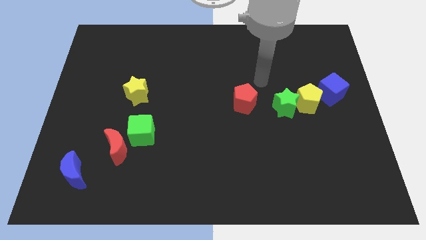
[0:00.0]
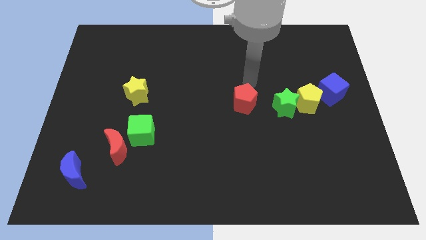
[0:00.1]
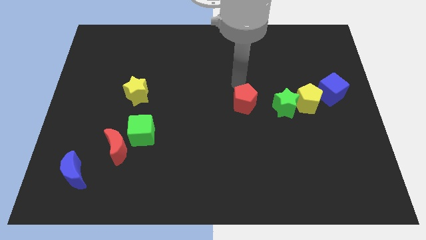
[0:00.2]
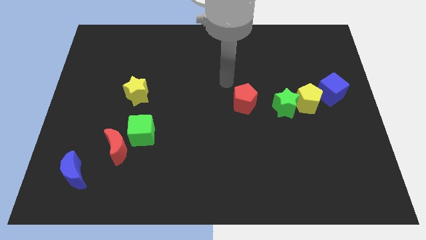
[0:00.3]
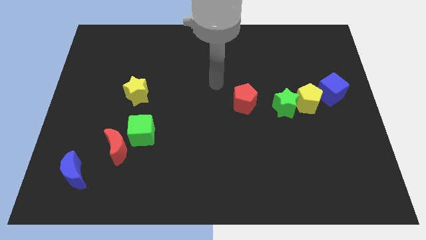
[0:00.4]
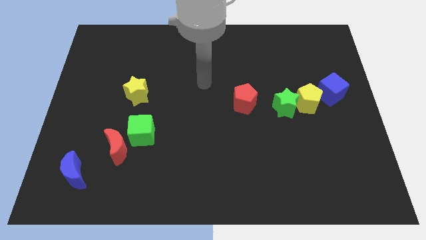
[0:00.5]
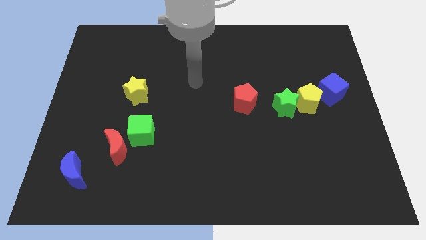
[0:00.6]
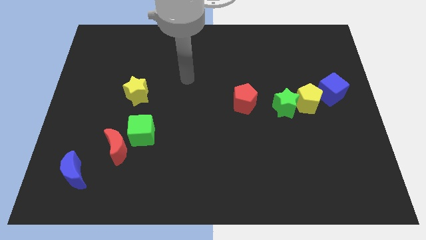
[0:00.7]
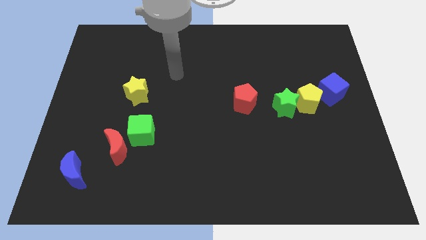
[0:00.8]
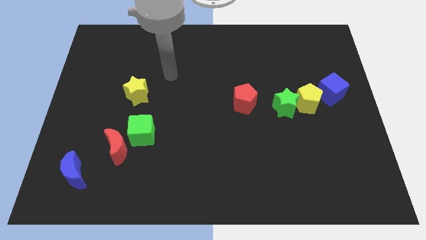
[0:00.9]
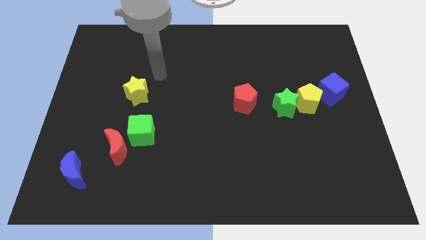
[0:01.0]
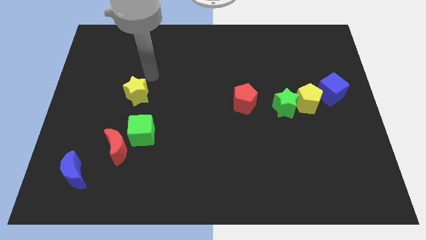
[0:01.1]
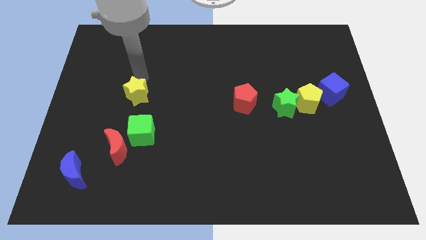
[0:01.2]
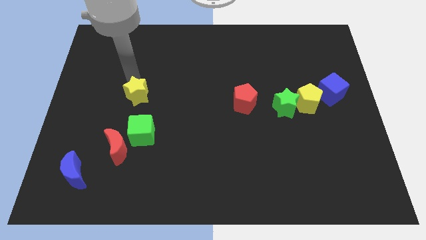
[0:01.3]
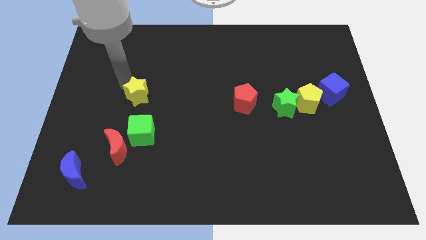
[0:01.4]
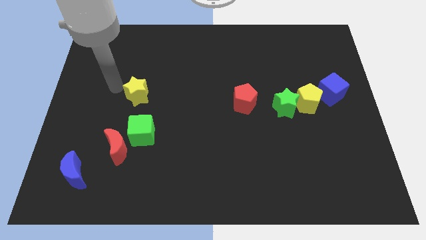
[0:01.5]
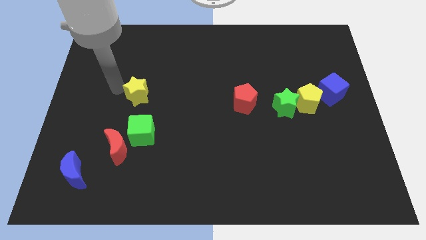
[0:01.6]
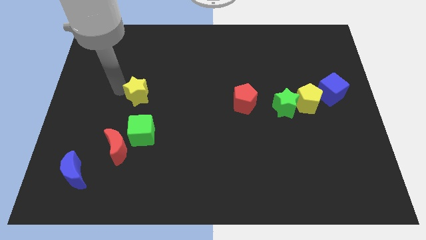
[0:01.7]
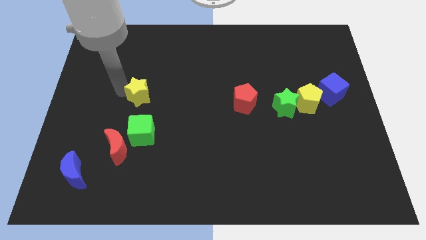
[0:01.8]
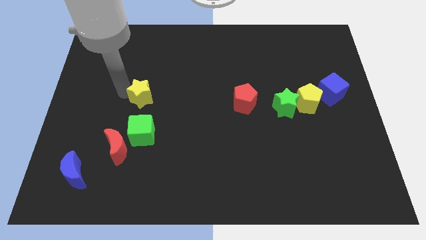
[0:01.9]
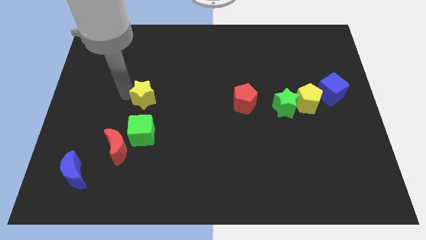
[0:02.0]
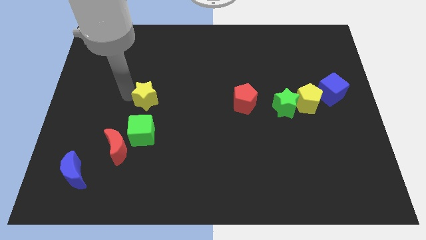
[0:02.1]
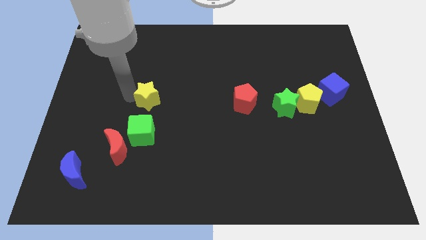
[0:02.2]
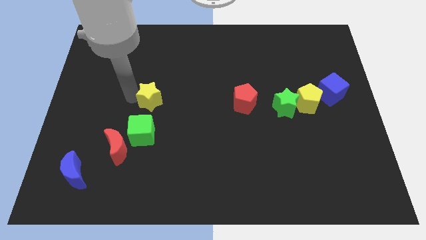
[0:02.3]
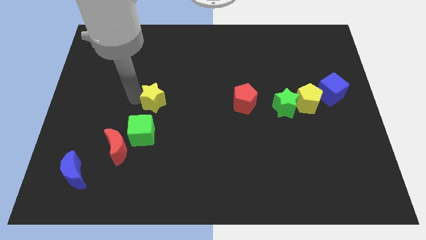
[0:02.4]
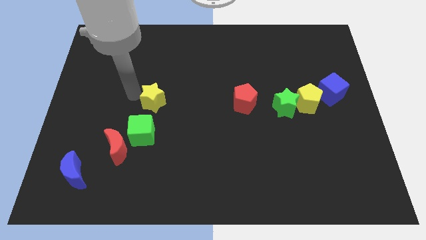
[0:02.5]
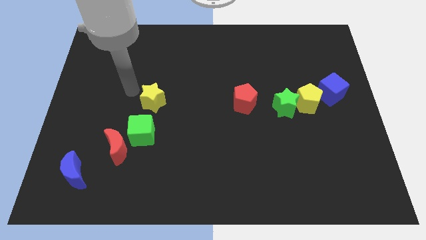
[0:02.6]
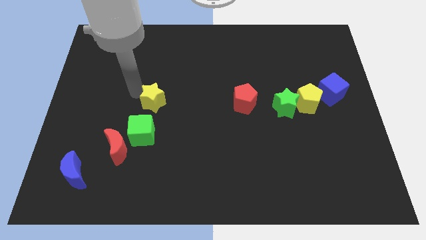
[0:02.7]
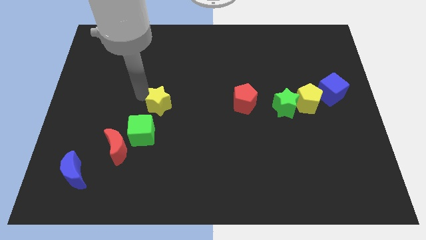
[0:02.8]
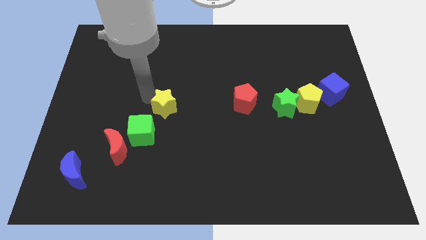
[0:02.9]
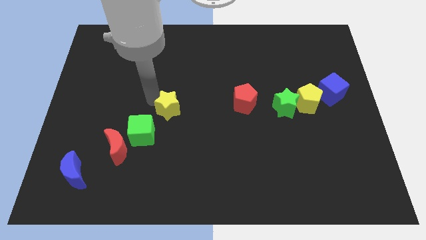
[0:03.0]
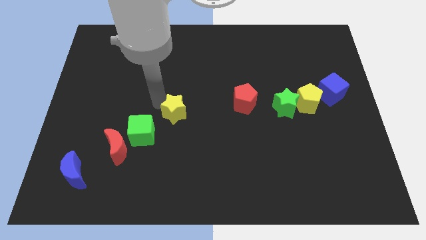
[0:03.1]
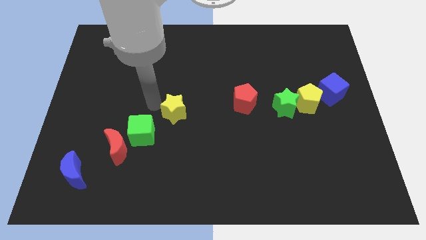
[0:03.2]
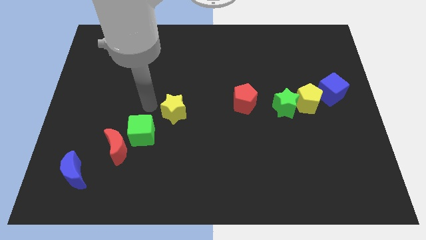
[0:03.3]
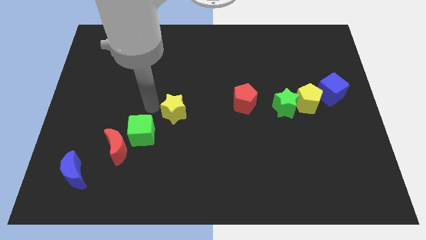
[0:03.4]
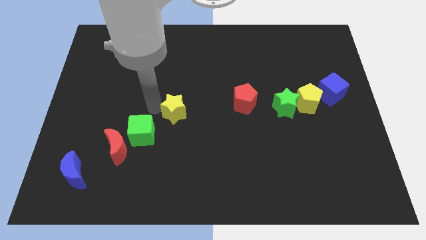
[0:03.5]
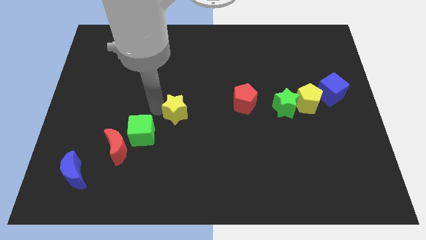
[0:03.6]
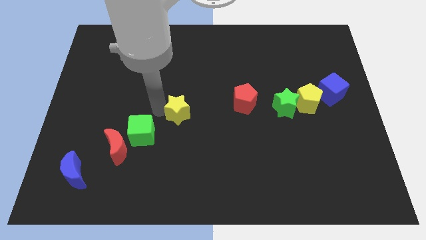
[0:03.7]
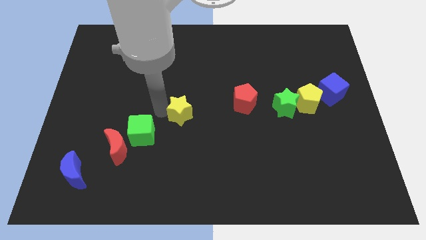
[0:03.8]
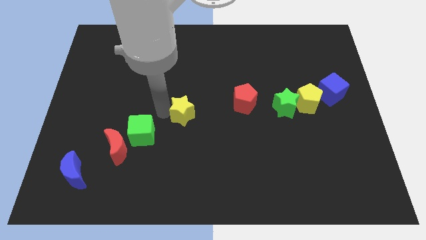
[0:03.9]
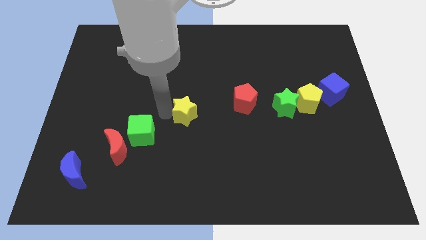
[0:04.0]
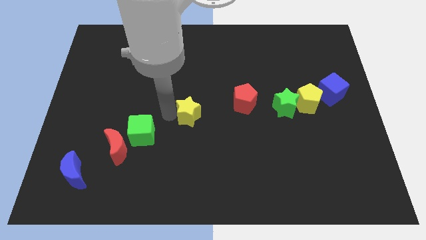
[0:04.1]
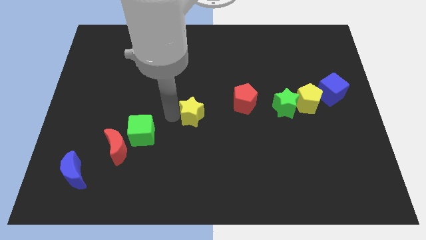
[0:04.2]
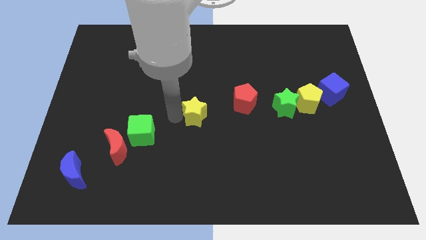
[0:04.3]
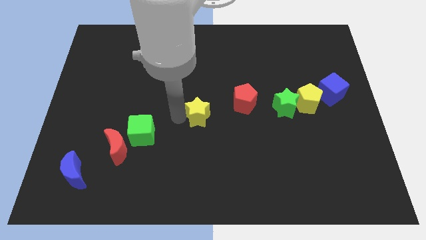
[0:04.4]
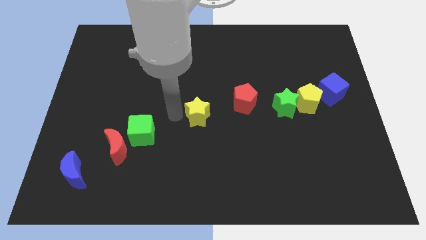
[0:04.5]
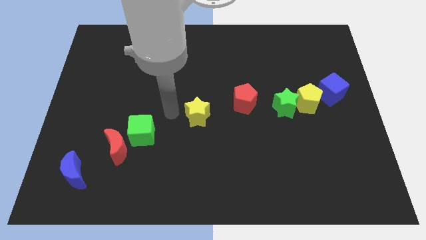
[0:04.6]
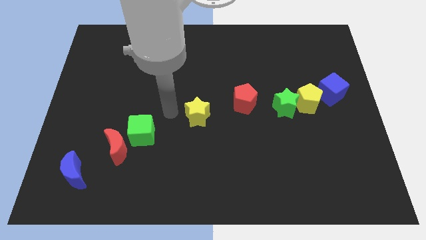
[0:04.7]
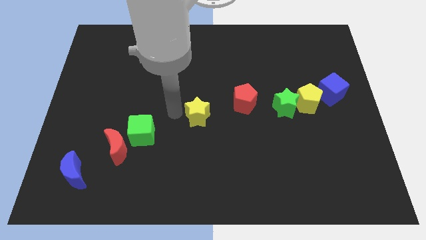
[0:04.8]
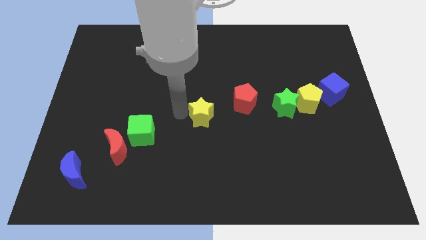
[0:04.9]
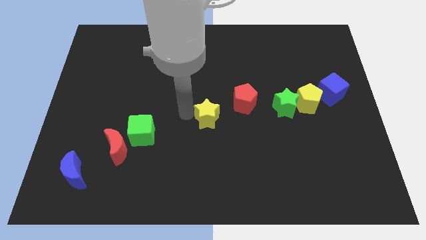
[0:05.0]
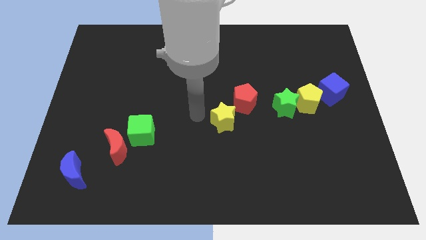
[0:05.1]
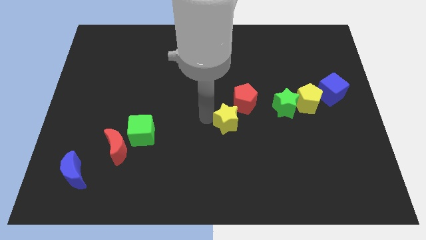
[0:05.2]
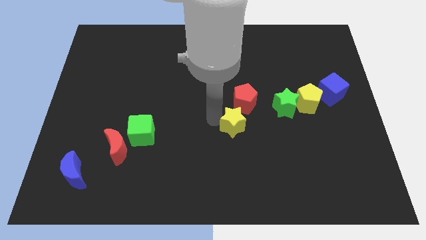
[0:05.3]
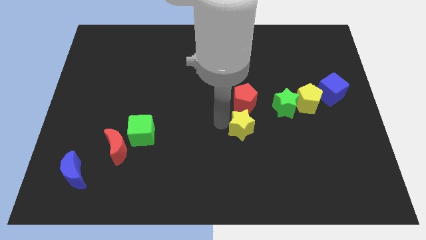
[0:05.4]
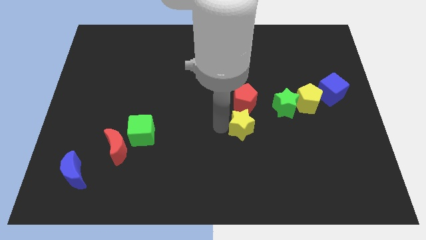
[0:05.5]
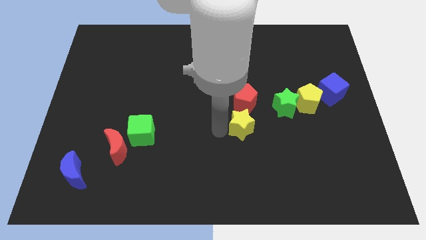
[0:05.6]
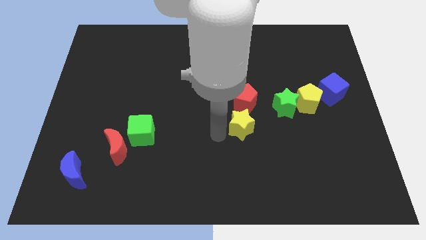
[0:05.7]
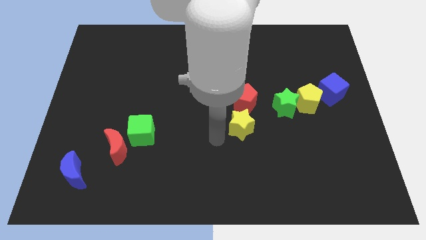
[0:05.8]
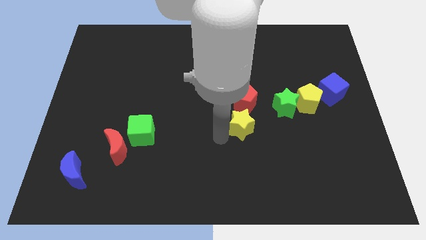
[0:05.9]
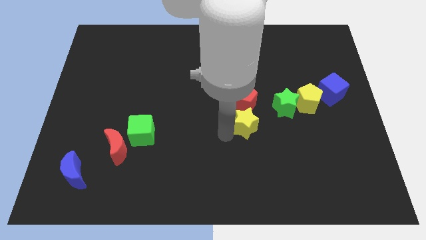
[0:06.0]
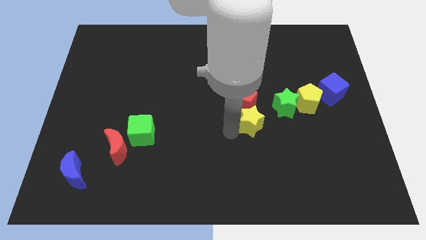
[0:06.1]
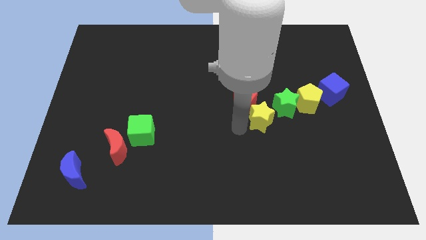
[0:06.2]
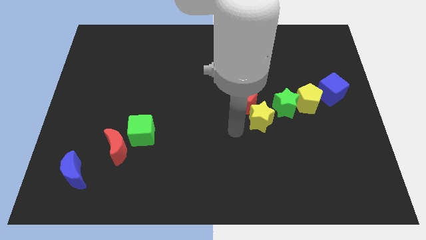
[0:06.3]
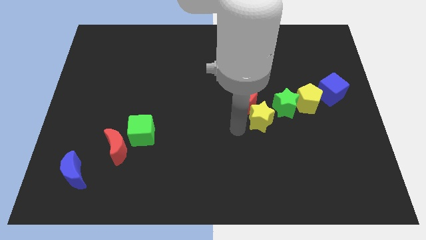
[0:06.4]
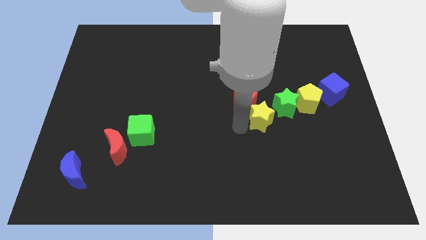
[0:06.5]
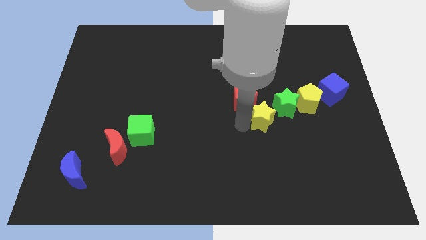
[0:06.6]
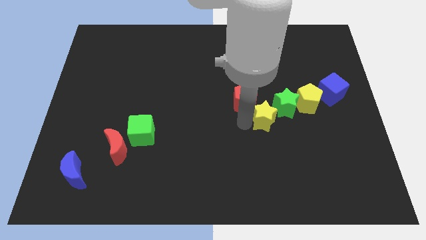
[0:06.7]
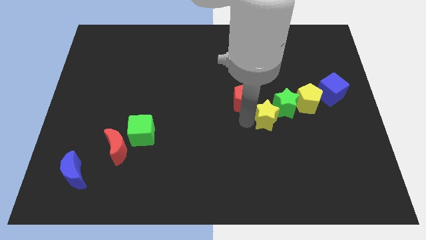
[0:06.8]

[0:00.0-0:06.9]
slide the yellow star close to the green star

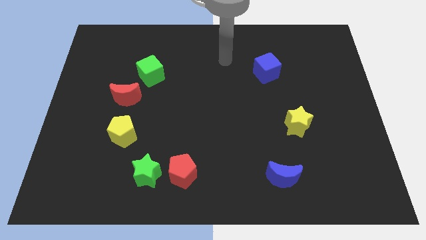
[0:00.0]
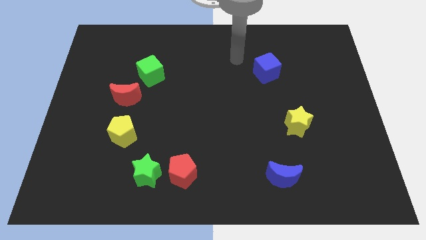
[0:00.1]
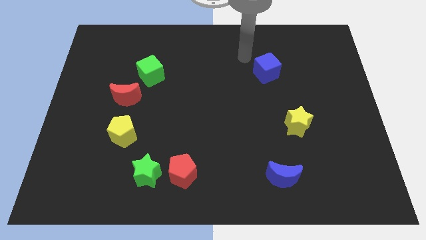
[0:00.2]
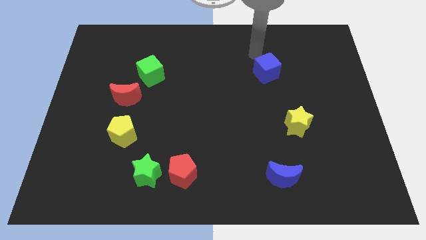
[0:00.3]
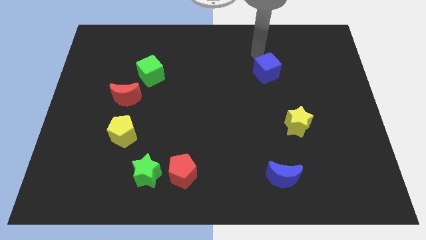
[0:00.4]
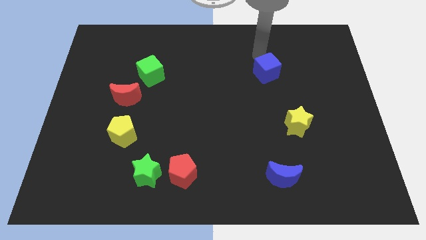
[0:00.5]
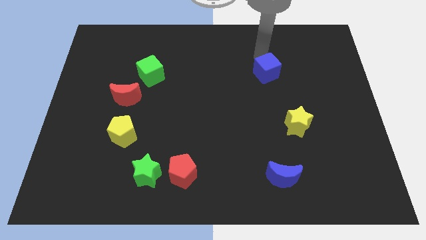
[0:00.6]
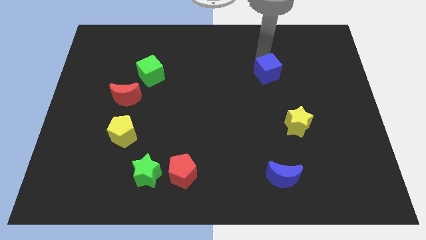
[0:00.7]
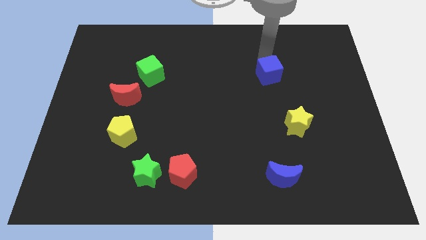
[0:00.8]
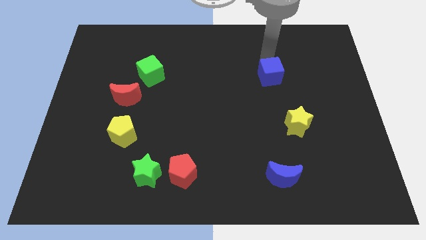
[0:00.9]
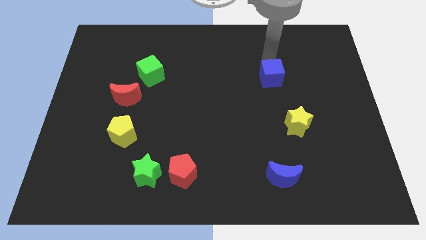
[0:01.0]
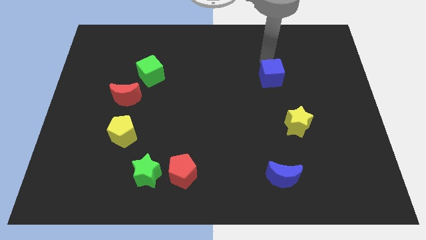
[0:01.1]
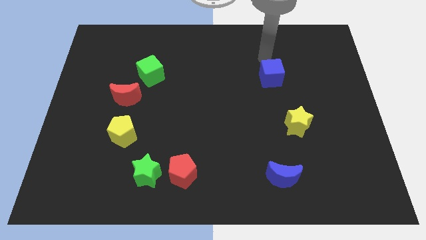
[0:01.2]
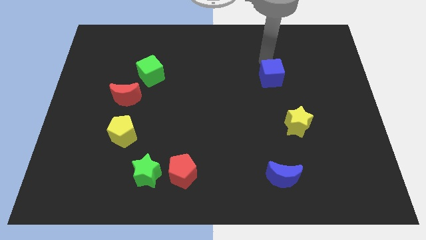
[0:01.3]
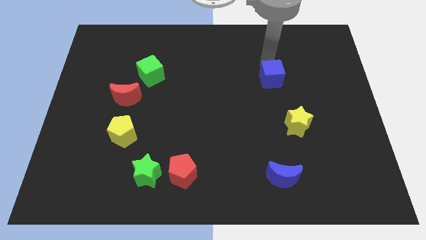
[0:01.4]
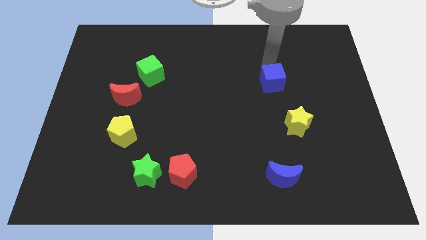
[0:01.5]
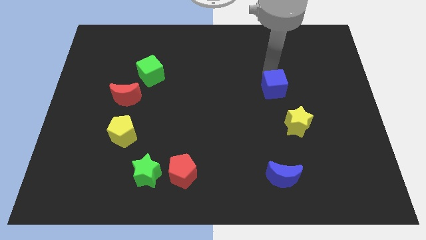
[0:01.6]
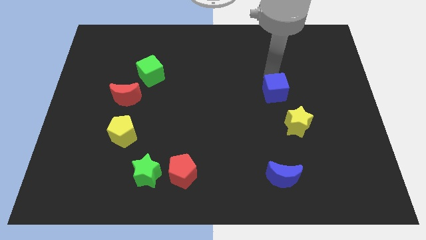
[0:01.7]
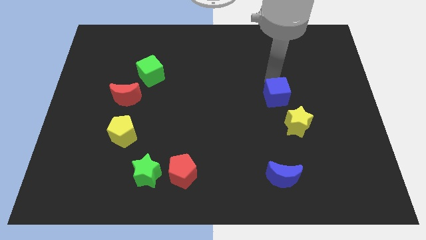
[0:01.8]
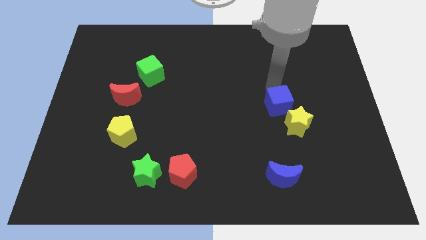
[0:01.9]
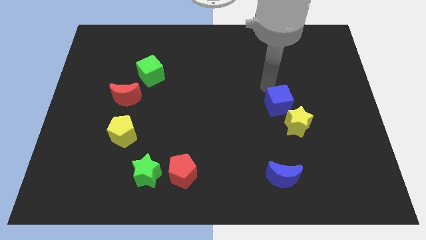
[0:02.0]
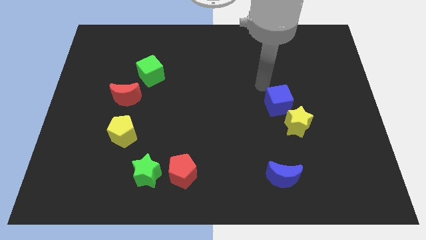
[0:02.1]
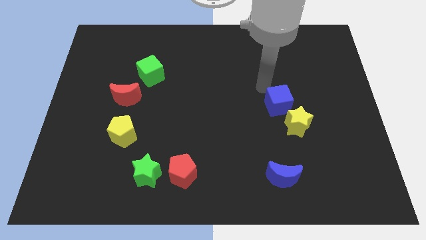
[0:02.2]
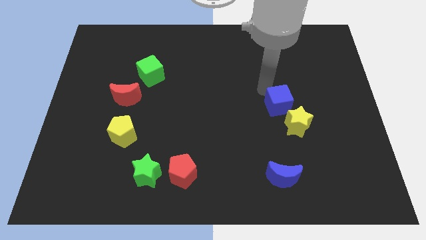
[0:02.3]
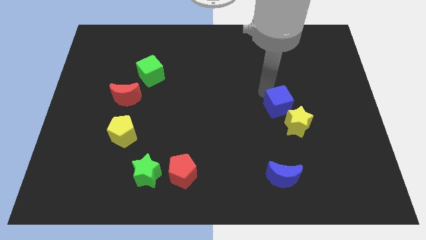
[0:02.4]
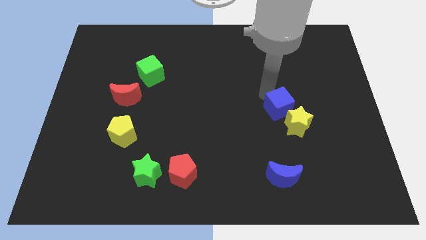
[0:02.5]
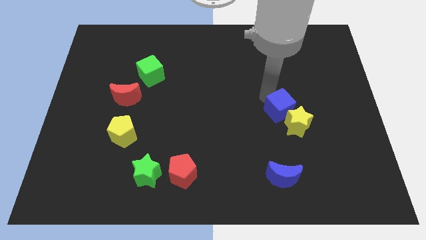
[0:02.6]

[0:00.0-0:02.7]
push the blue cube next to the yellow star
